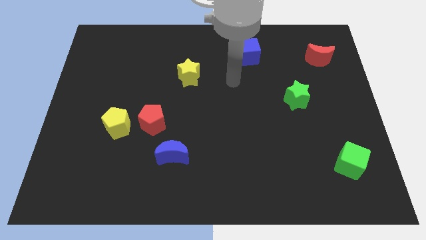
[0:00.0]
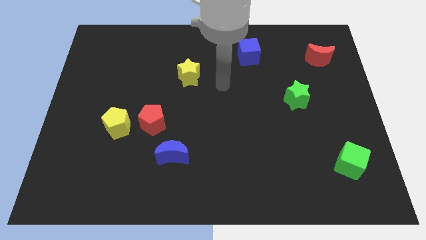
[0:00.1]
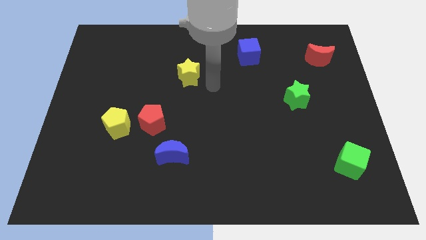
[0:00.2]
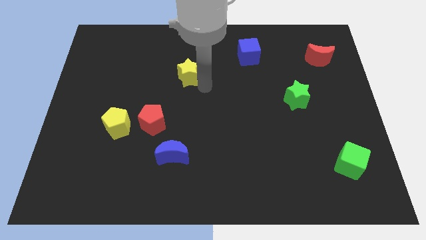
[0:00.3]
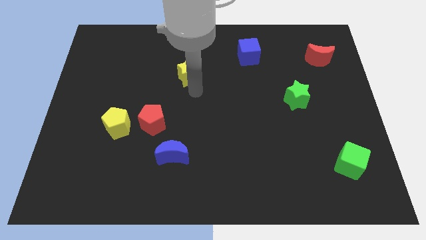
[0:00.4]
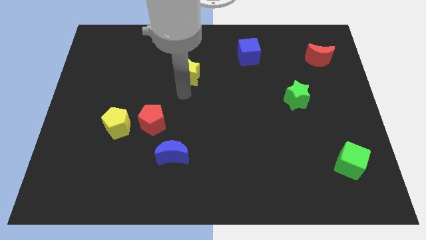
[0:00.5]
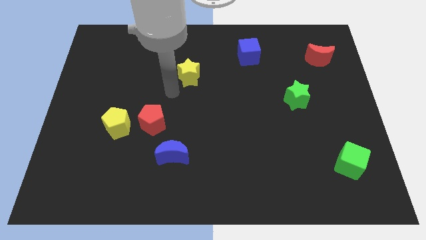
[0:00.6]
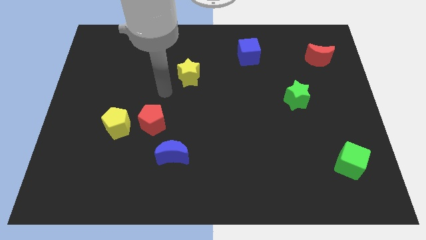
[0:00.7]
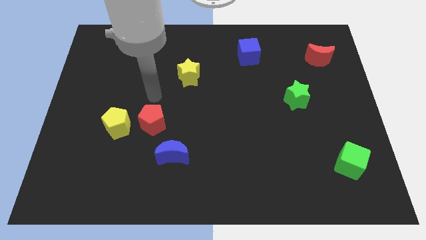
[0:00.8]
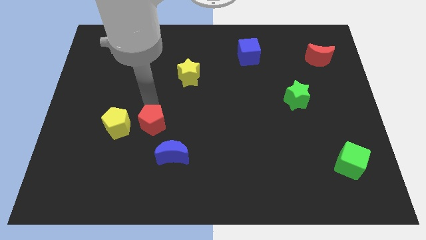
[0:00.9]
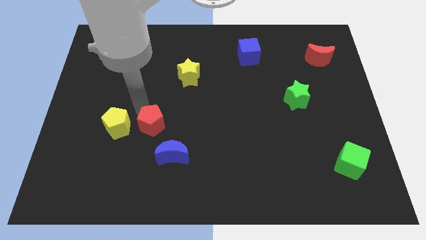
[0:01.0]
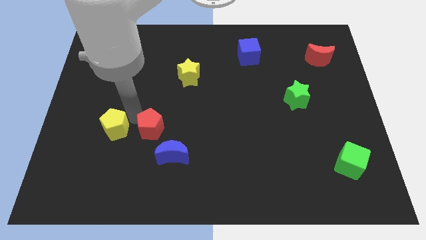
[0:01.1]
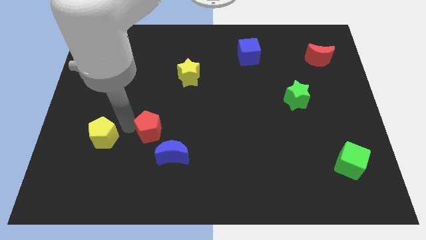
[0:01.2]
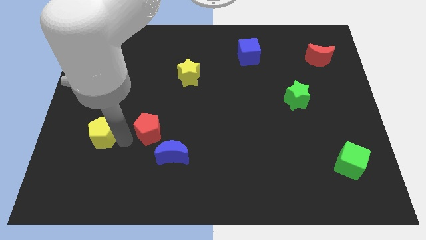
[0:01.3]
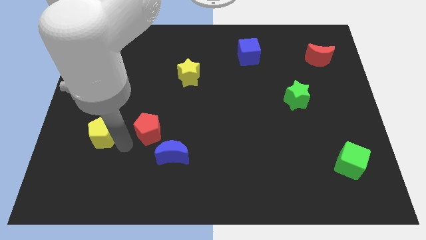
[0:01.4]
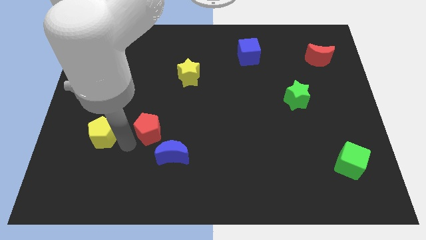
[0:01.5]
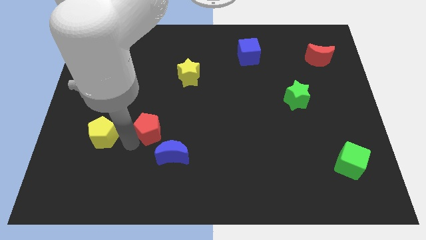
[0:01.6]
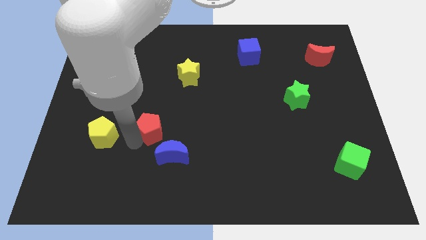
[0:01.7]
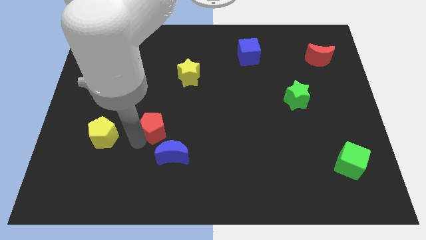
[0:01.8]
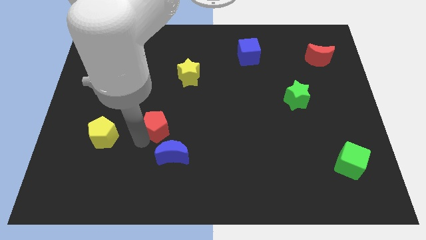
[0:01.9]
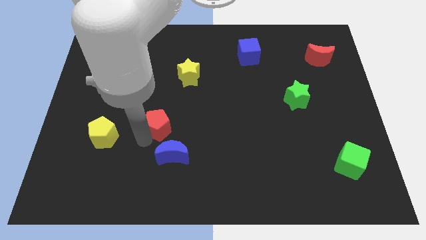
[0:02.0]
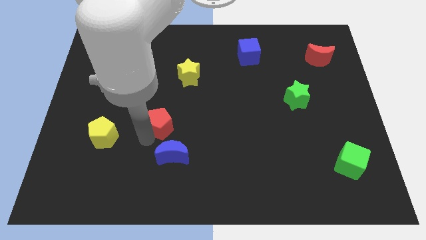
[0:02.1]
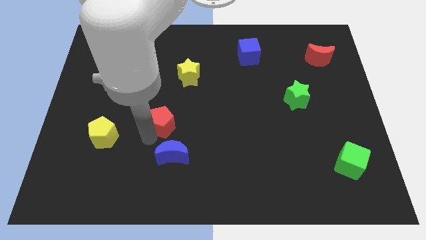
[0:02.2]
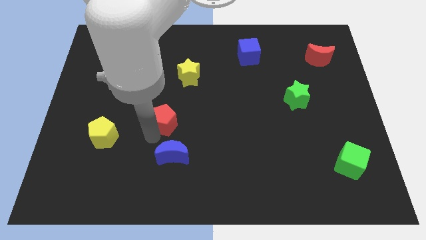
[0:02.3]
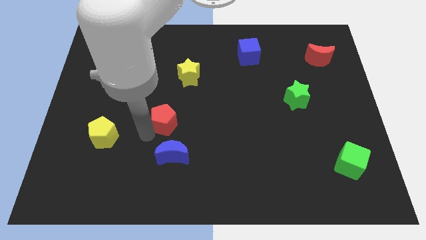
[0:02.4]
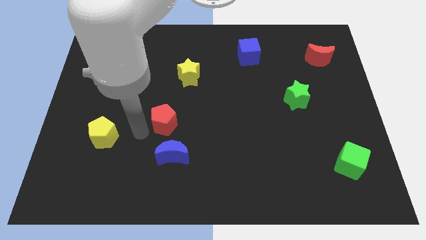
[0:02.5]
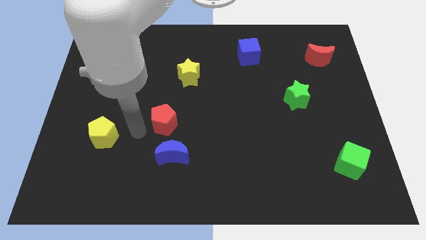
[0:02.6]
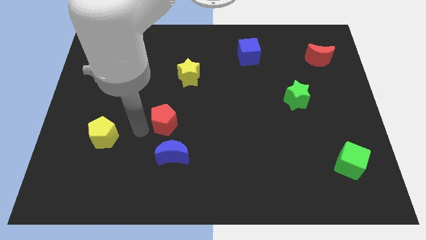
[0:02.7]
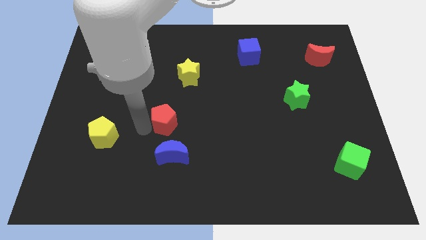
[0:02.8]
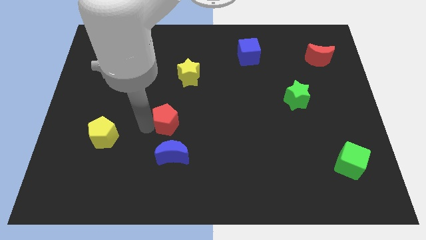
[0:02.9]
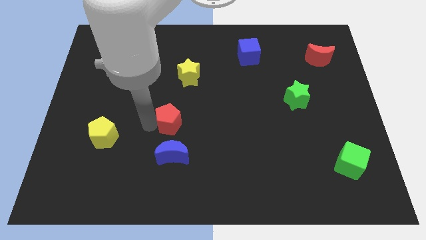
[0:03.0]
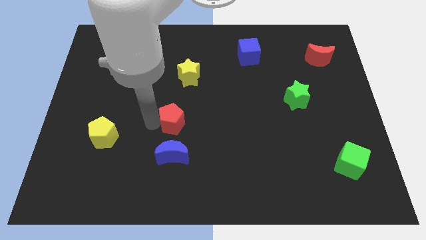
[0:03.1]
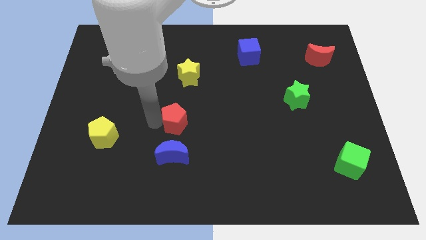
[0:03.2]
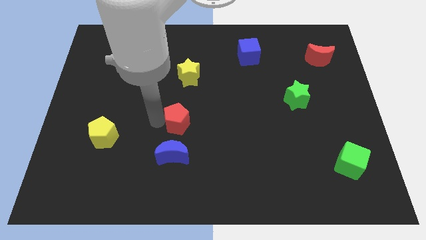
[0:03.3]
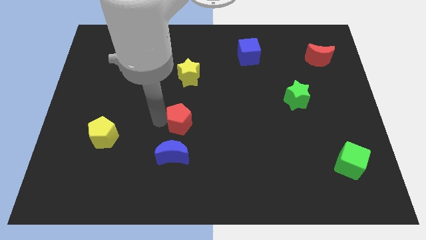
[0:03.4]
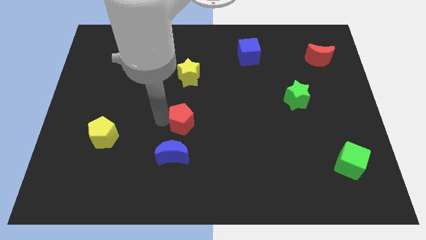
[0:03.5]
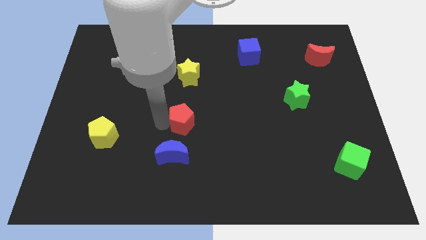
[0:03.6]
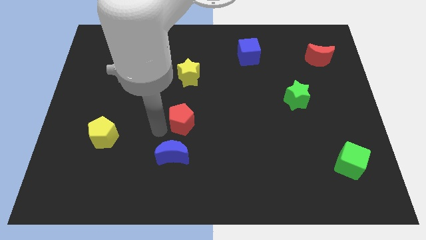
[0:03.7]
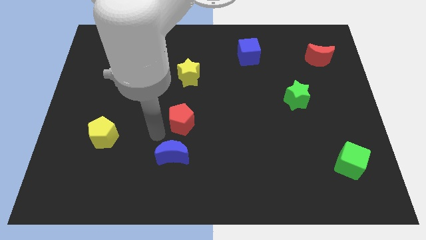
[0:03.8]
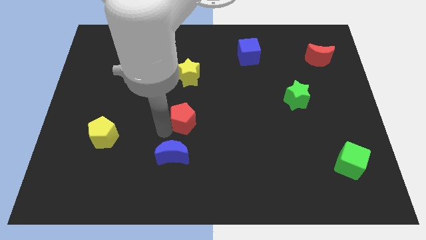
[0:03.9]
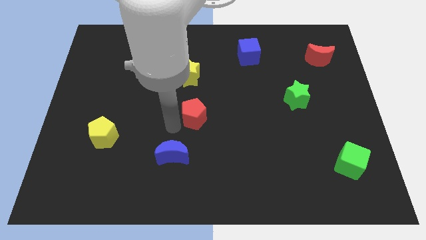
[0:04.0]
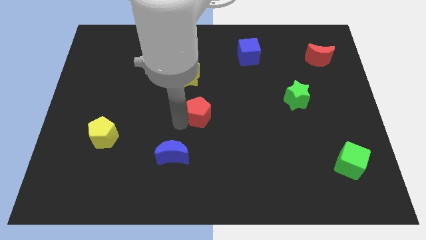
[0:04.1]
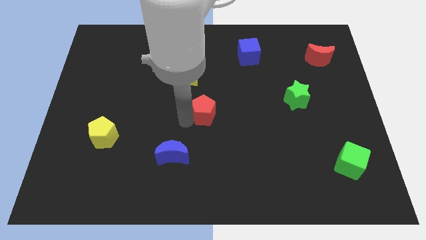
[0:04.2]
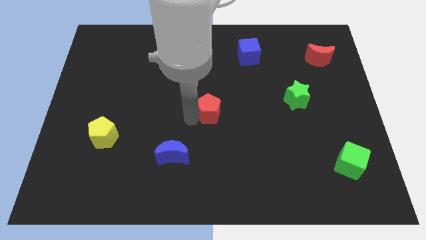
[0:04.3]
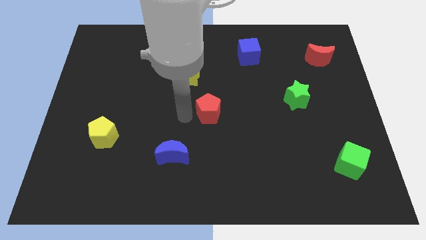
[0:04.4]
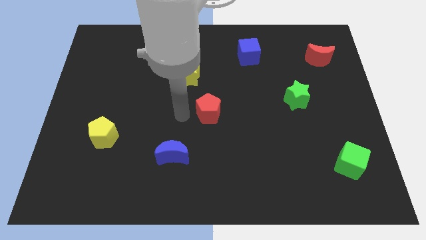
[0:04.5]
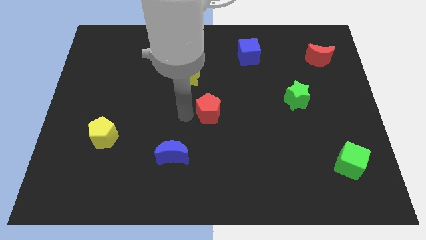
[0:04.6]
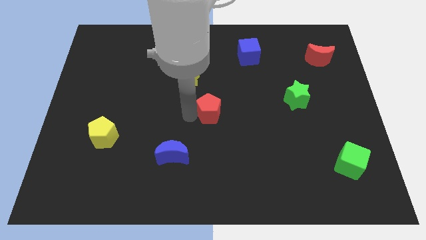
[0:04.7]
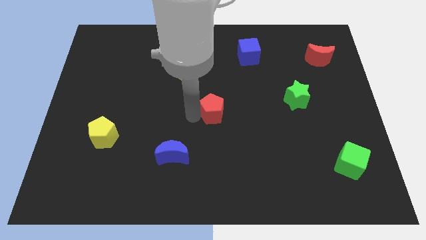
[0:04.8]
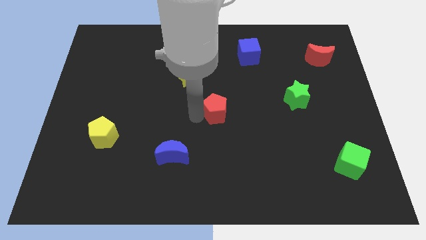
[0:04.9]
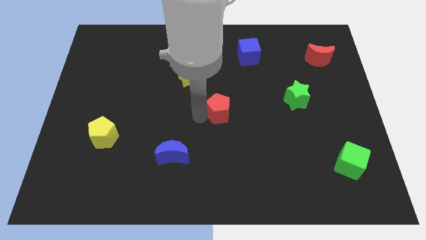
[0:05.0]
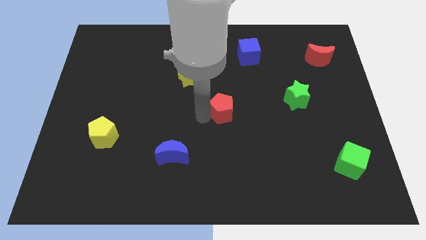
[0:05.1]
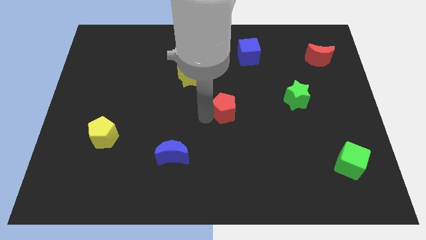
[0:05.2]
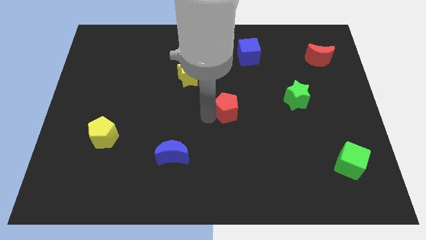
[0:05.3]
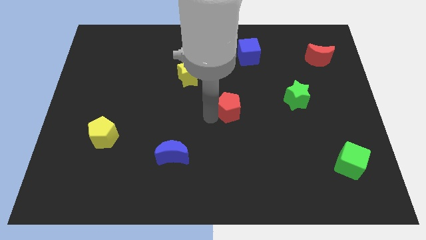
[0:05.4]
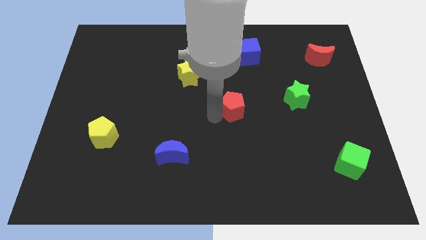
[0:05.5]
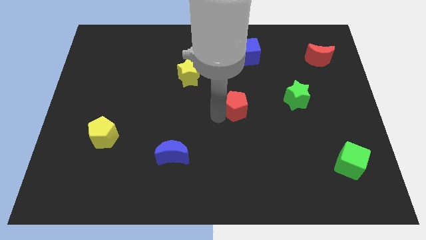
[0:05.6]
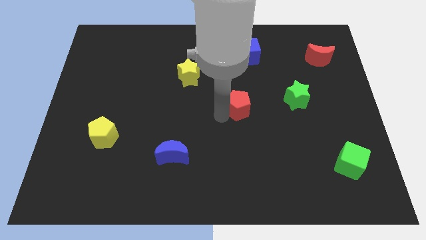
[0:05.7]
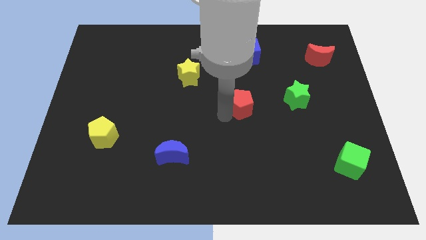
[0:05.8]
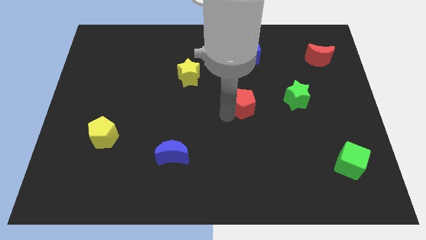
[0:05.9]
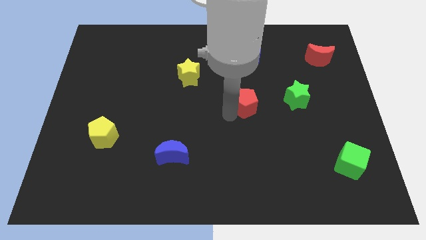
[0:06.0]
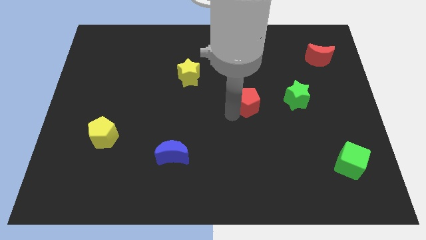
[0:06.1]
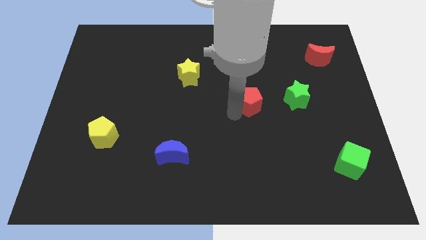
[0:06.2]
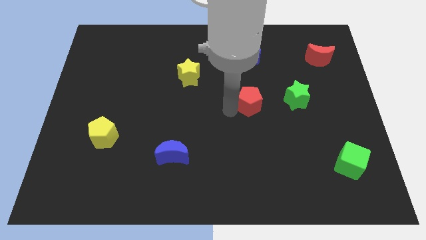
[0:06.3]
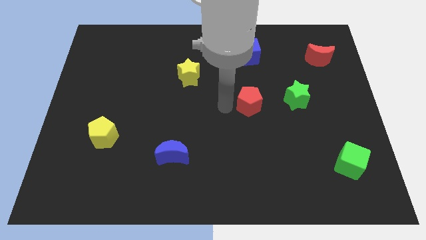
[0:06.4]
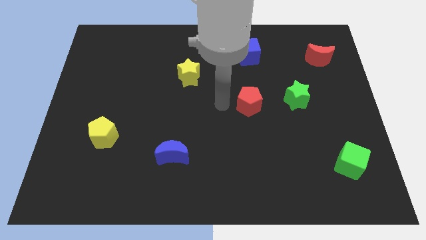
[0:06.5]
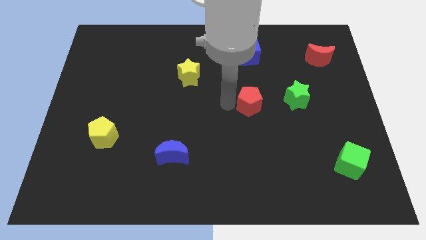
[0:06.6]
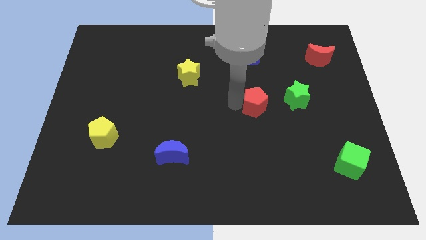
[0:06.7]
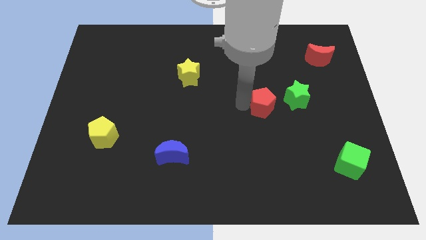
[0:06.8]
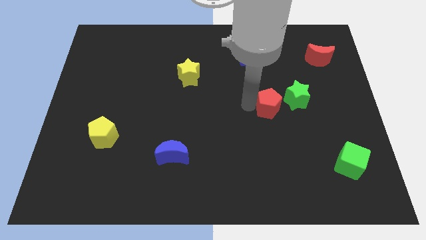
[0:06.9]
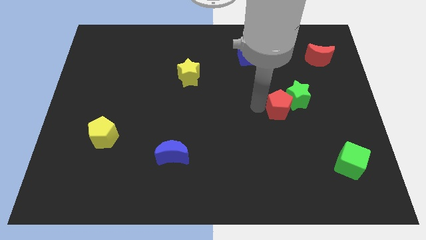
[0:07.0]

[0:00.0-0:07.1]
push the red pentagon next to the green star
